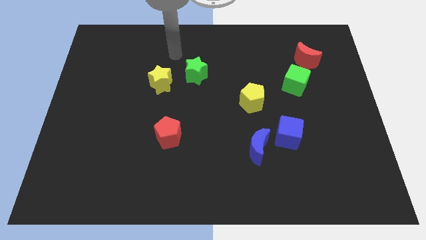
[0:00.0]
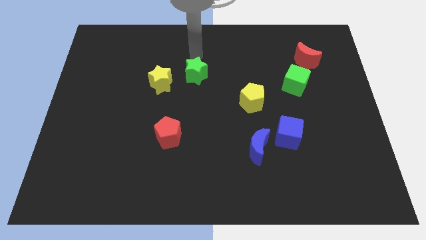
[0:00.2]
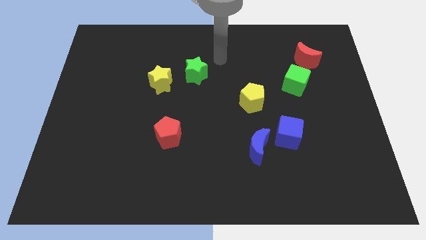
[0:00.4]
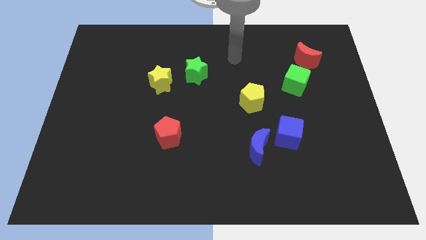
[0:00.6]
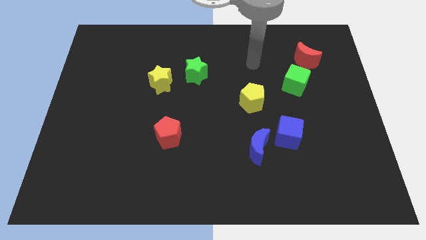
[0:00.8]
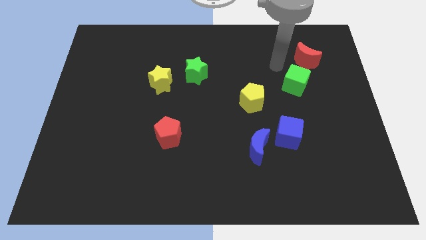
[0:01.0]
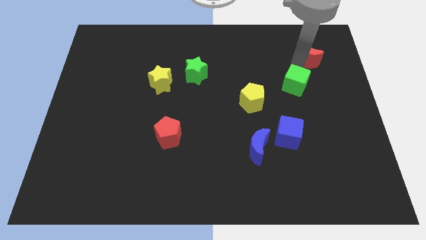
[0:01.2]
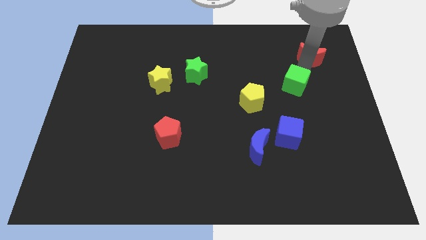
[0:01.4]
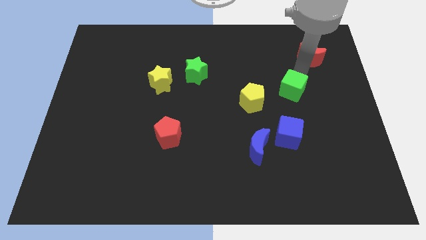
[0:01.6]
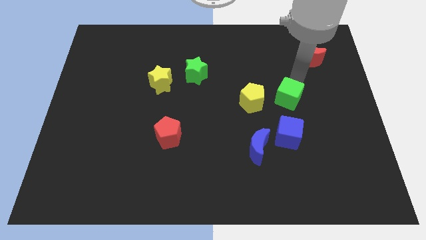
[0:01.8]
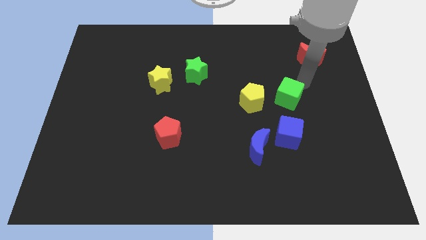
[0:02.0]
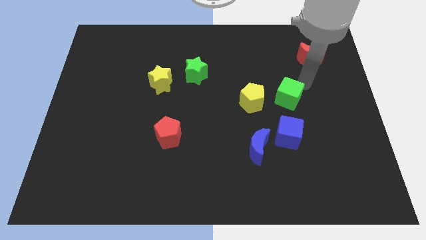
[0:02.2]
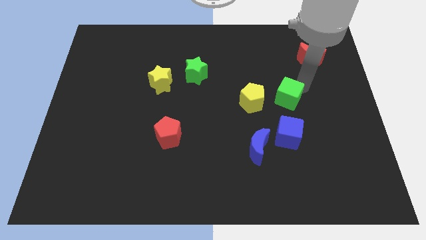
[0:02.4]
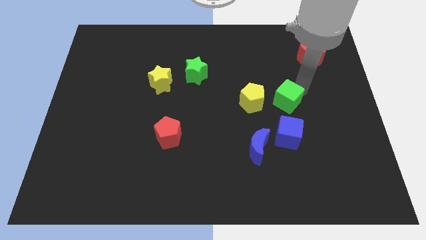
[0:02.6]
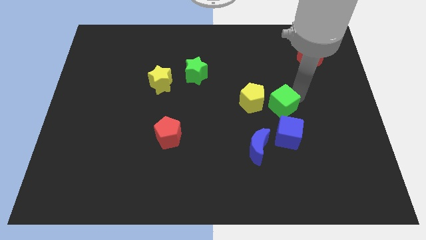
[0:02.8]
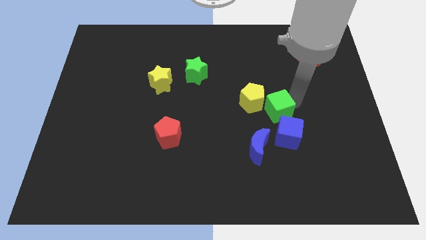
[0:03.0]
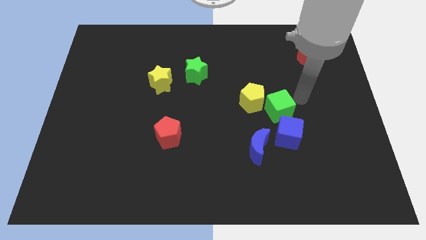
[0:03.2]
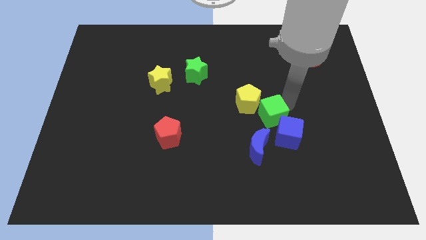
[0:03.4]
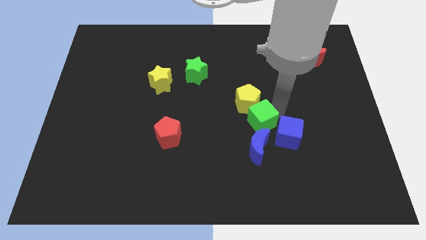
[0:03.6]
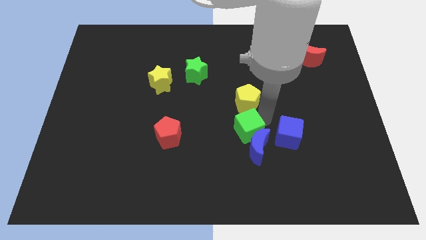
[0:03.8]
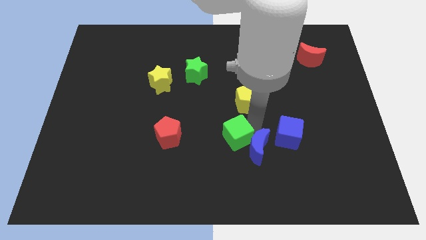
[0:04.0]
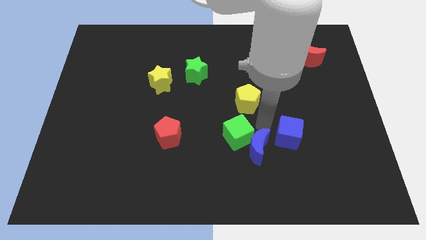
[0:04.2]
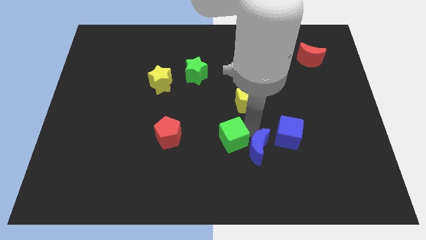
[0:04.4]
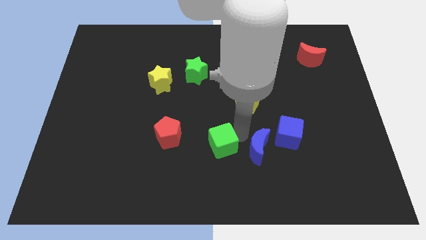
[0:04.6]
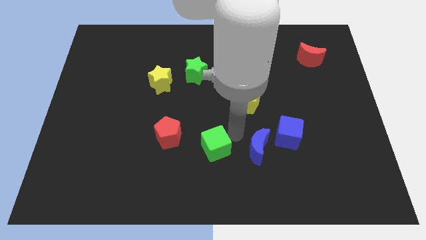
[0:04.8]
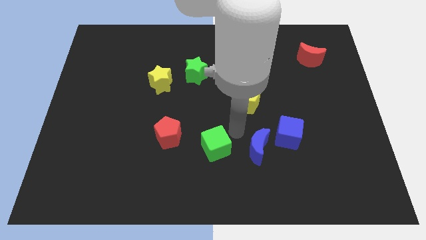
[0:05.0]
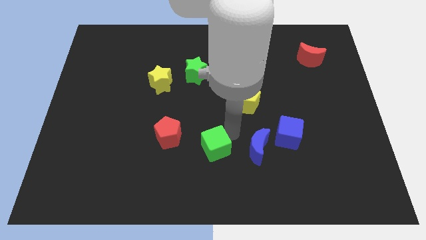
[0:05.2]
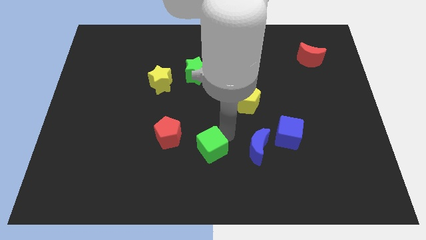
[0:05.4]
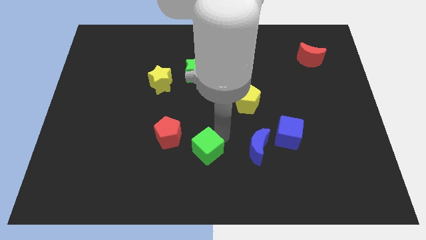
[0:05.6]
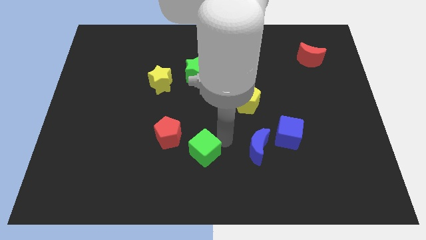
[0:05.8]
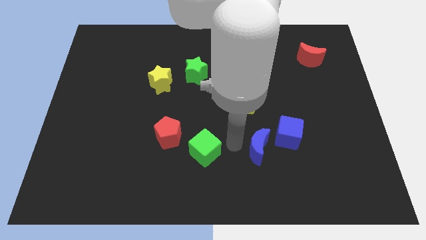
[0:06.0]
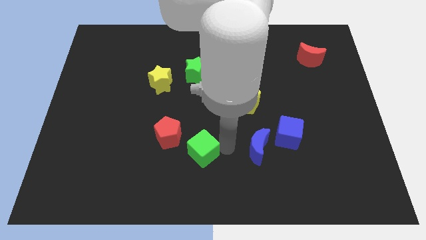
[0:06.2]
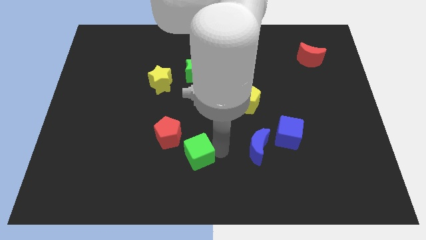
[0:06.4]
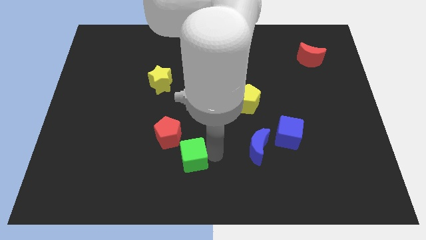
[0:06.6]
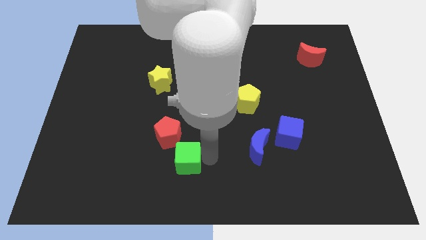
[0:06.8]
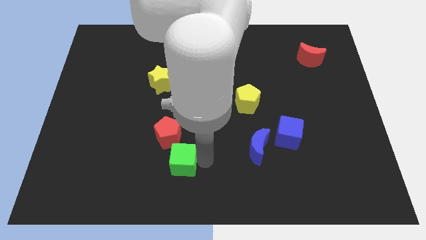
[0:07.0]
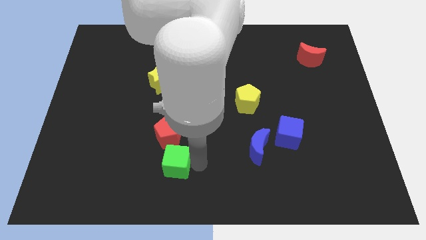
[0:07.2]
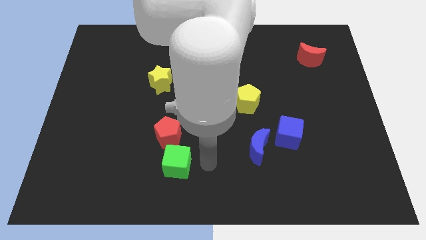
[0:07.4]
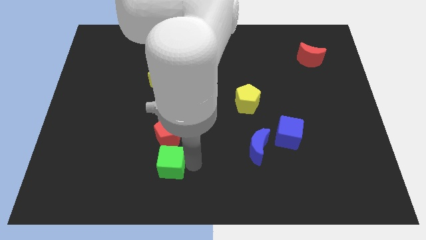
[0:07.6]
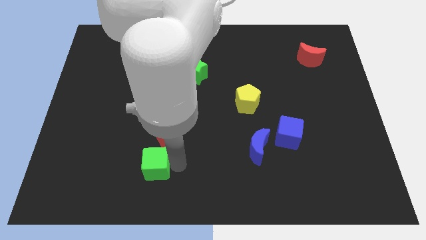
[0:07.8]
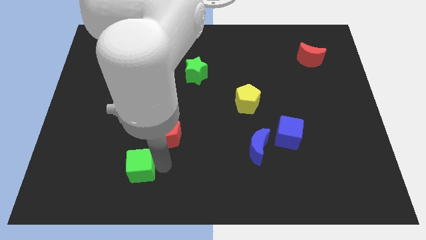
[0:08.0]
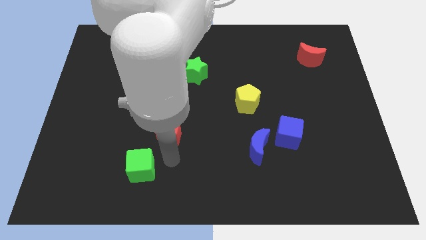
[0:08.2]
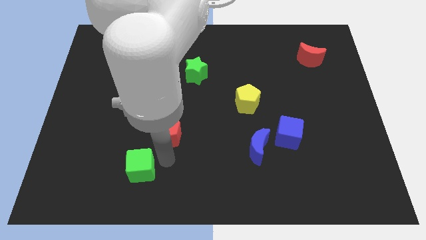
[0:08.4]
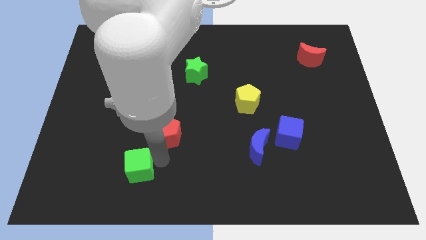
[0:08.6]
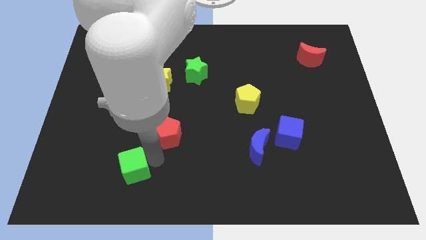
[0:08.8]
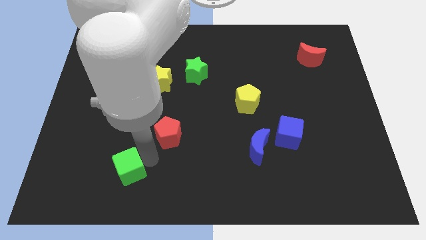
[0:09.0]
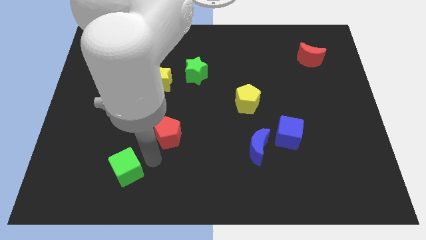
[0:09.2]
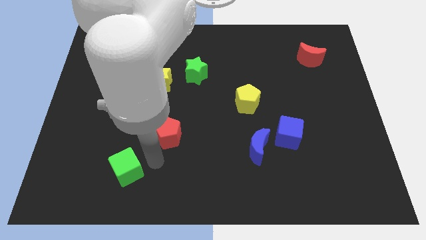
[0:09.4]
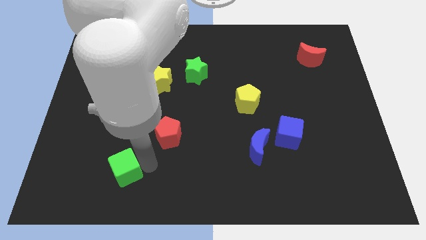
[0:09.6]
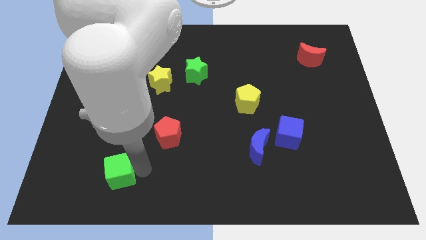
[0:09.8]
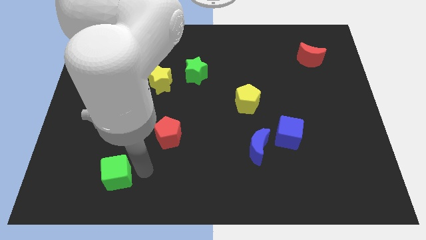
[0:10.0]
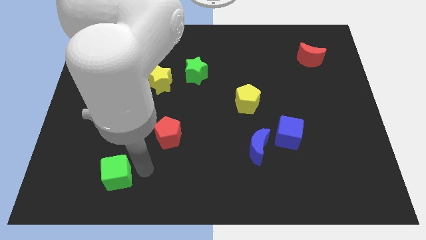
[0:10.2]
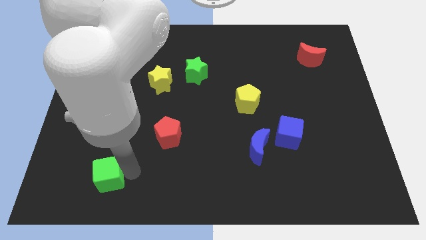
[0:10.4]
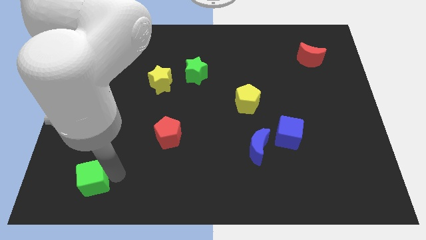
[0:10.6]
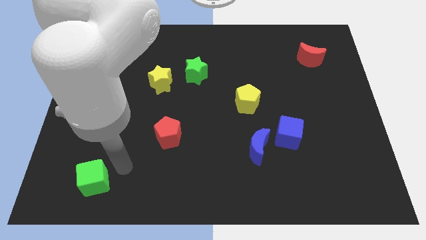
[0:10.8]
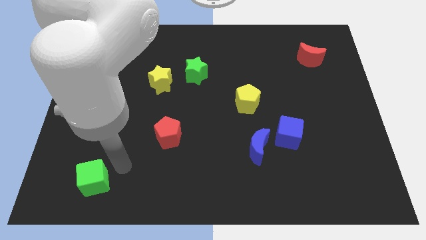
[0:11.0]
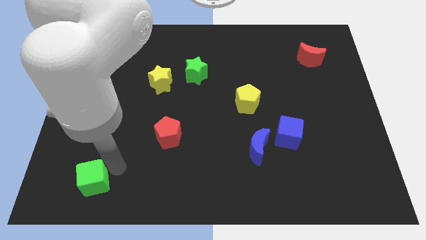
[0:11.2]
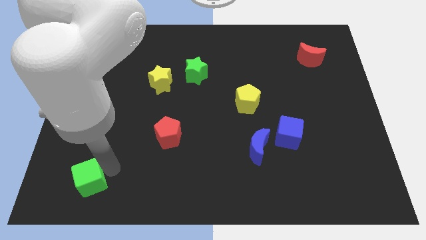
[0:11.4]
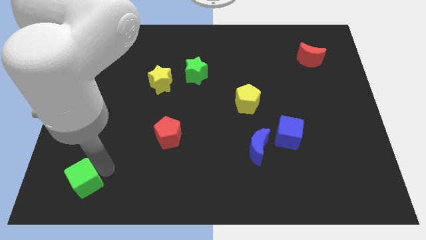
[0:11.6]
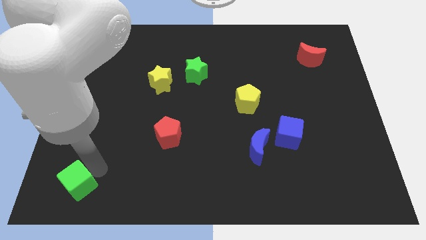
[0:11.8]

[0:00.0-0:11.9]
move the green cube to the bottom left of the board
